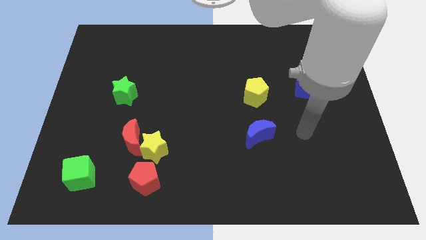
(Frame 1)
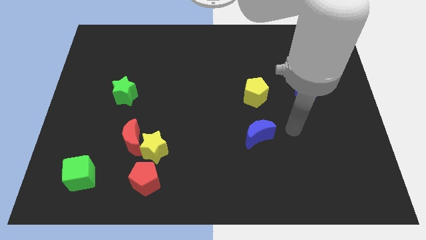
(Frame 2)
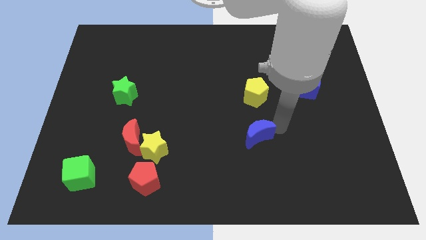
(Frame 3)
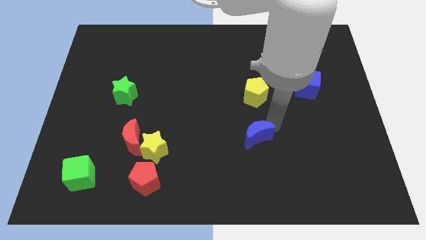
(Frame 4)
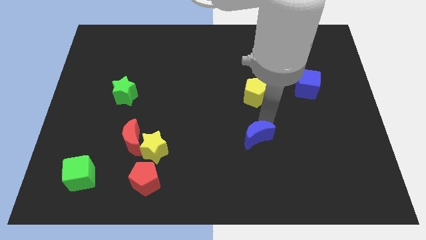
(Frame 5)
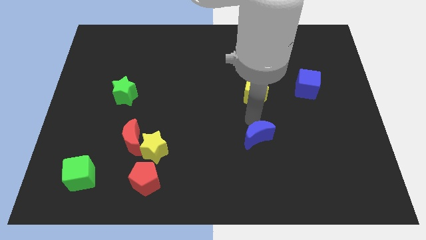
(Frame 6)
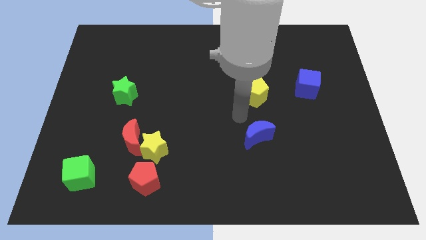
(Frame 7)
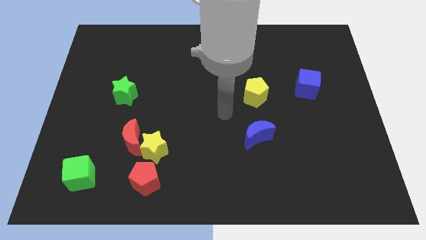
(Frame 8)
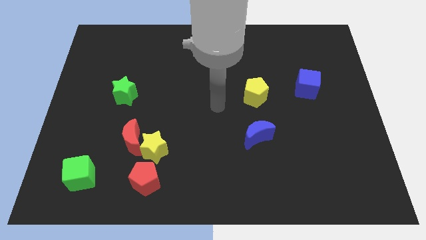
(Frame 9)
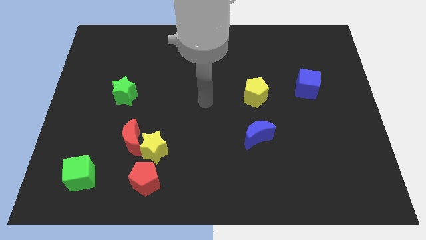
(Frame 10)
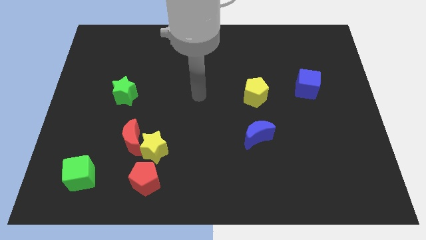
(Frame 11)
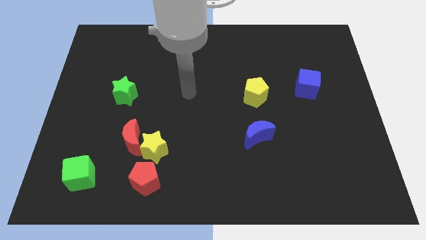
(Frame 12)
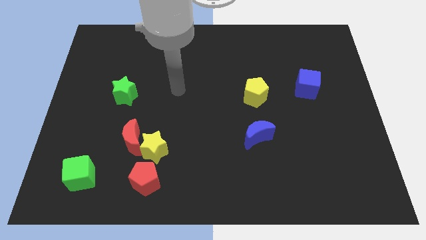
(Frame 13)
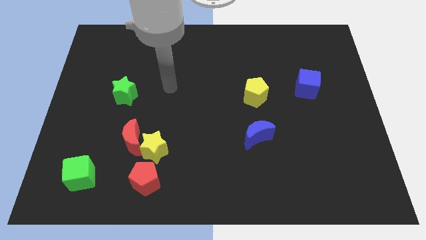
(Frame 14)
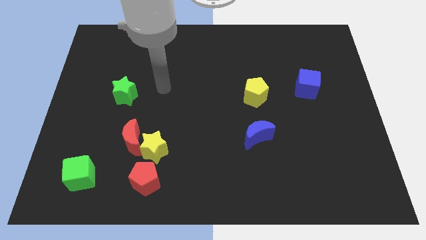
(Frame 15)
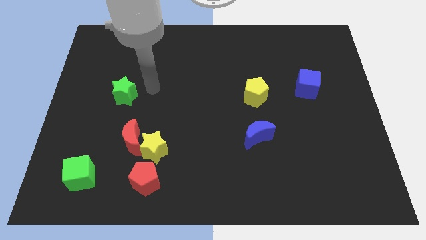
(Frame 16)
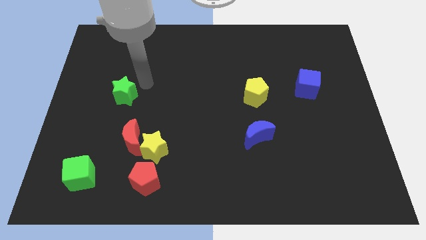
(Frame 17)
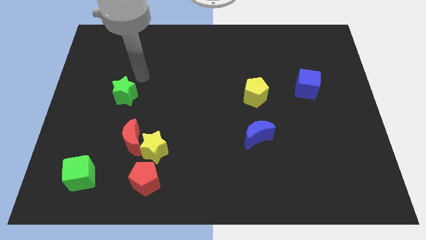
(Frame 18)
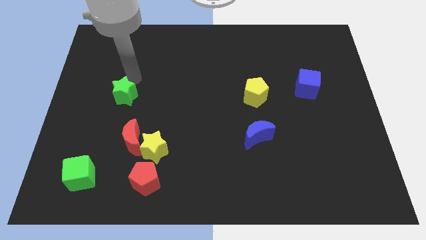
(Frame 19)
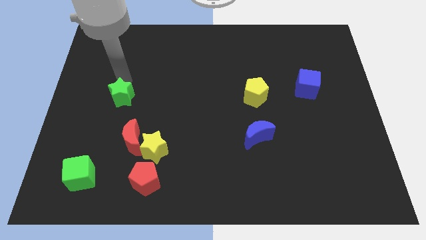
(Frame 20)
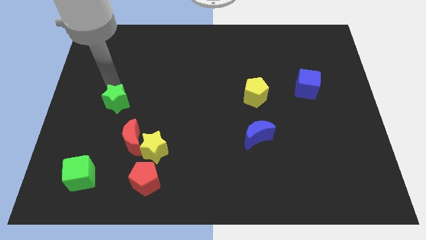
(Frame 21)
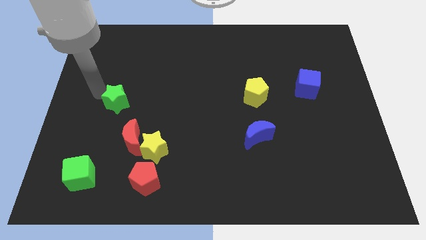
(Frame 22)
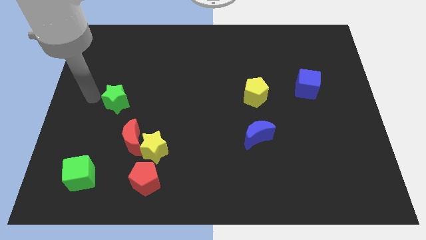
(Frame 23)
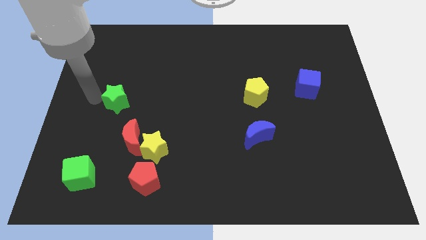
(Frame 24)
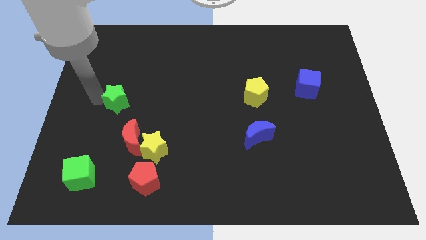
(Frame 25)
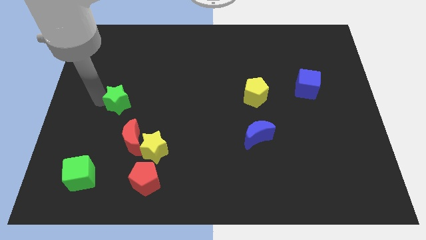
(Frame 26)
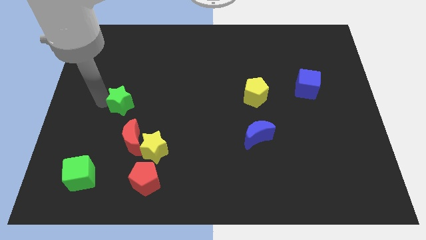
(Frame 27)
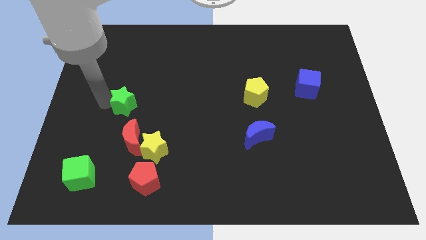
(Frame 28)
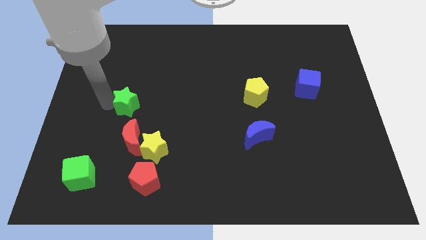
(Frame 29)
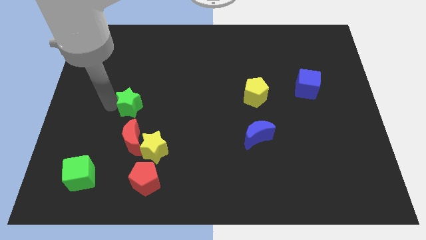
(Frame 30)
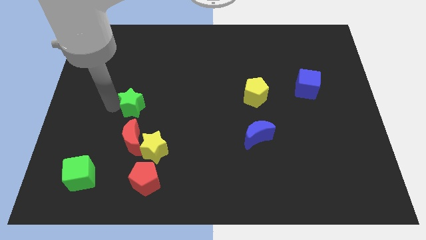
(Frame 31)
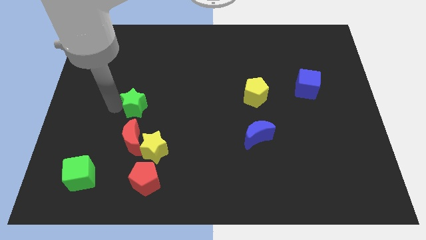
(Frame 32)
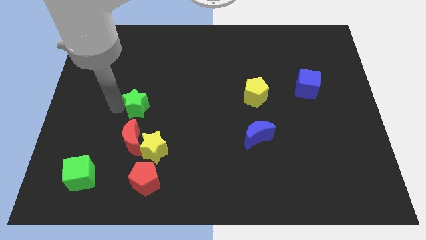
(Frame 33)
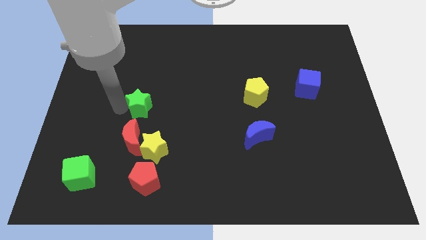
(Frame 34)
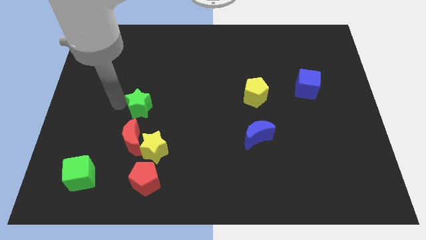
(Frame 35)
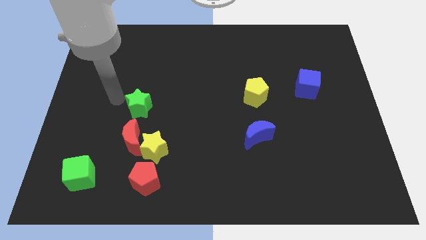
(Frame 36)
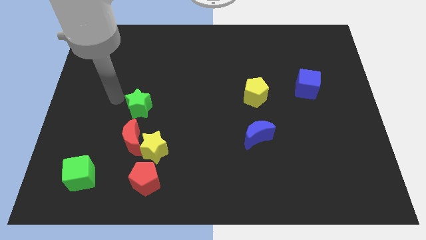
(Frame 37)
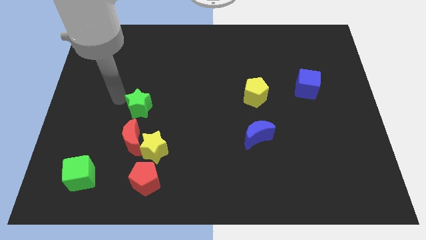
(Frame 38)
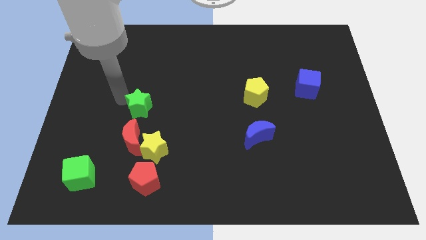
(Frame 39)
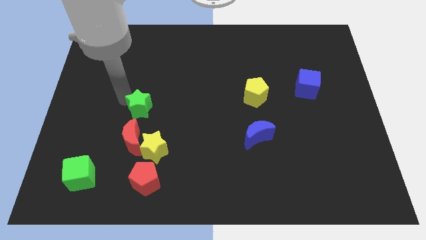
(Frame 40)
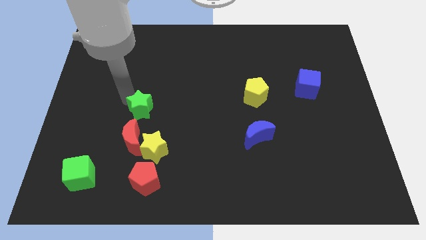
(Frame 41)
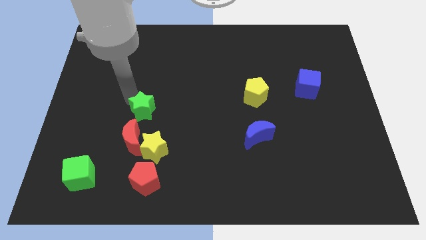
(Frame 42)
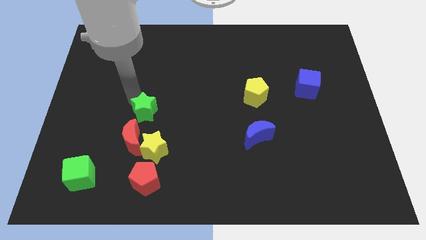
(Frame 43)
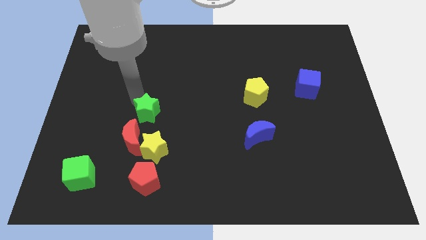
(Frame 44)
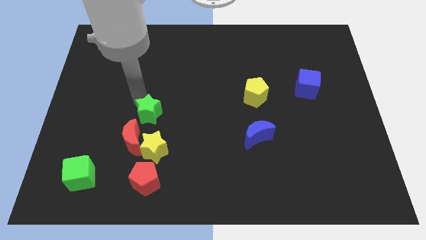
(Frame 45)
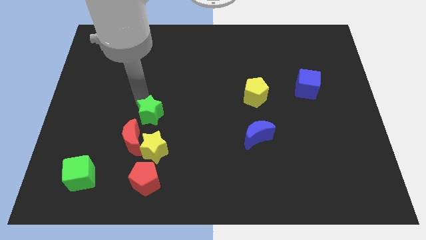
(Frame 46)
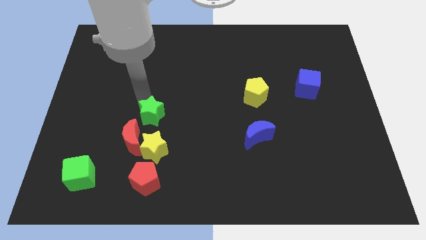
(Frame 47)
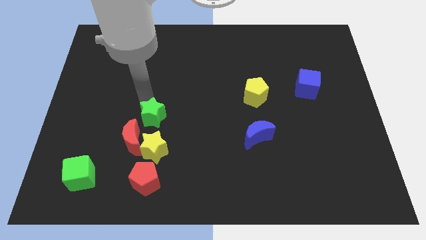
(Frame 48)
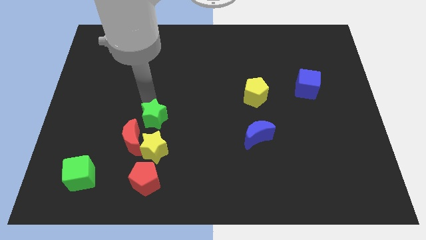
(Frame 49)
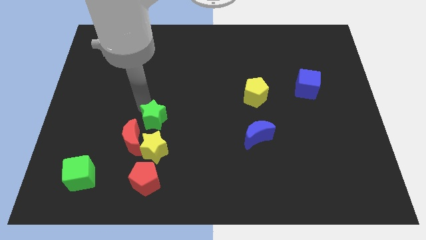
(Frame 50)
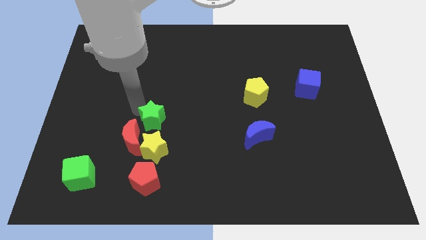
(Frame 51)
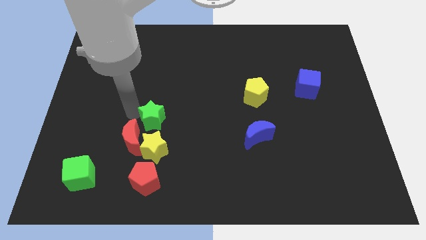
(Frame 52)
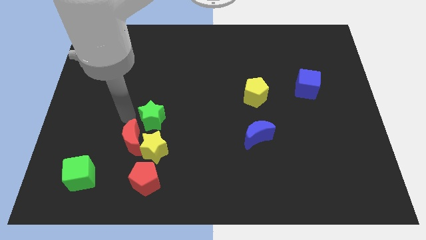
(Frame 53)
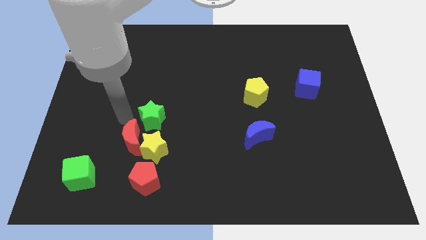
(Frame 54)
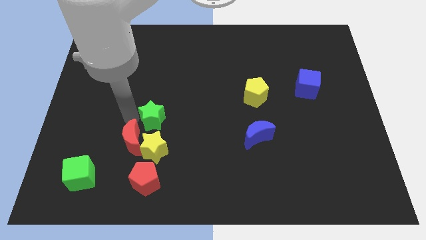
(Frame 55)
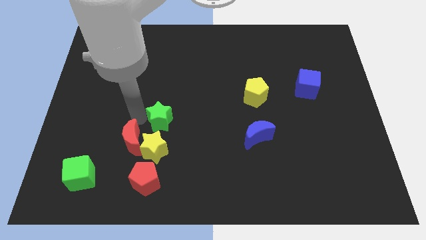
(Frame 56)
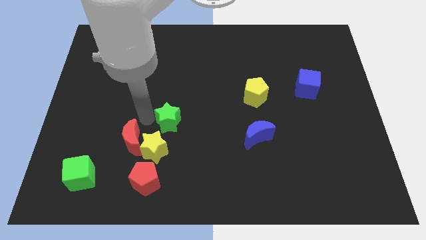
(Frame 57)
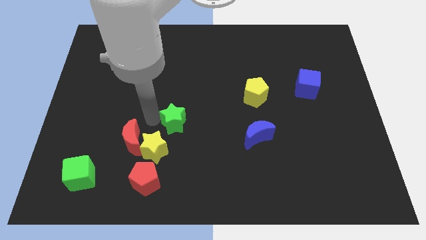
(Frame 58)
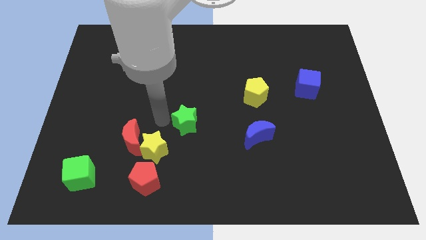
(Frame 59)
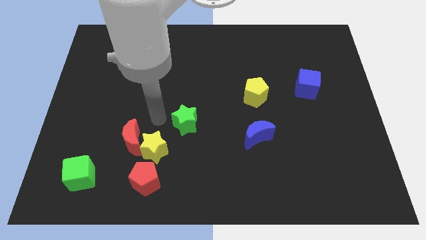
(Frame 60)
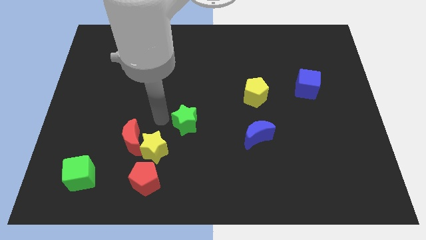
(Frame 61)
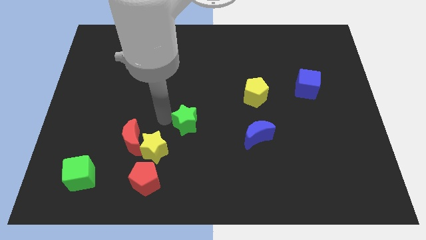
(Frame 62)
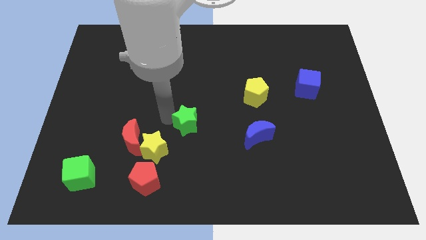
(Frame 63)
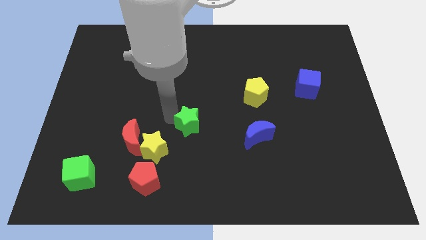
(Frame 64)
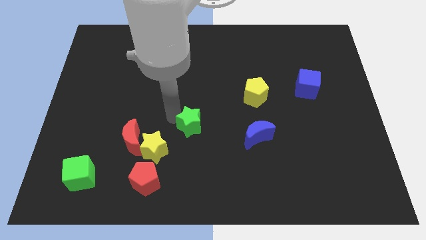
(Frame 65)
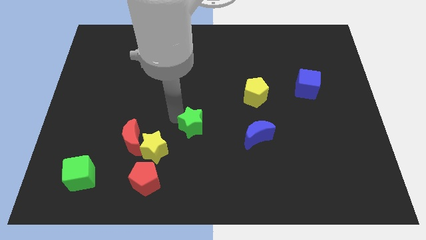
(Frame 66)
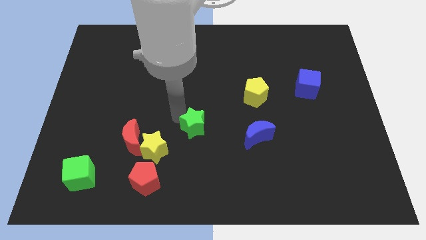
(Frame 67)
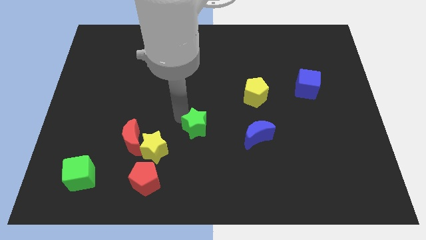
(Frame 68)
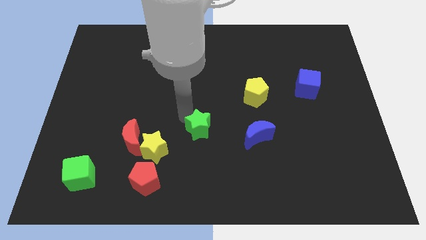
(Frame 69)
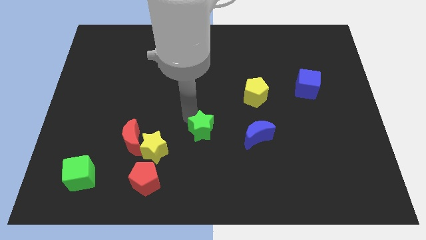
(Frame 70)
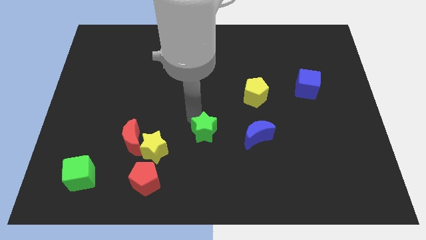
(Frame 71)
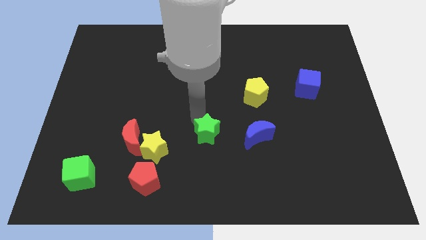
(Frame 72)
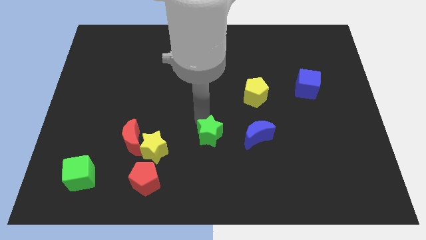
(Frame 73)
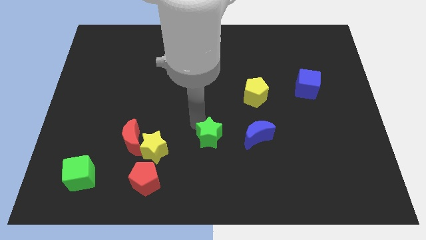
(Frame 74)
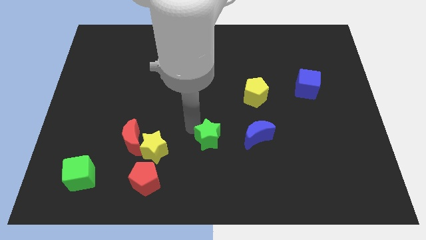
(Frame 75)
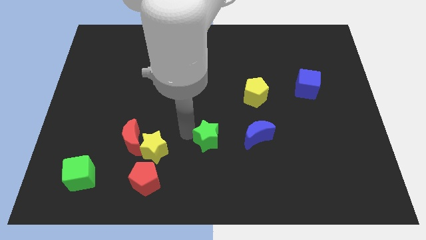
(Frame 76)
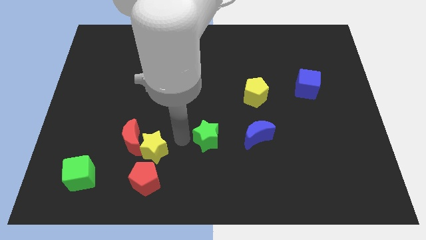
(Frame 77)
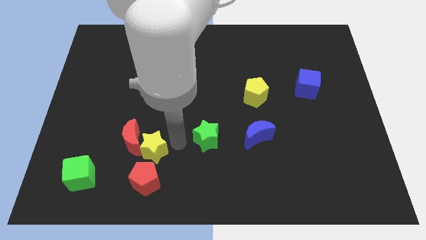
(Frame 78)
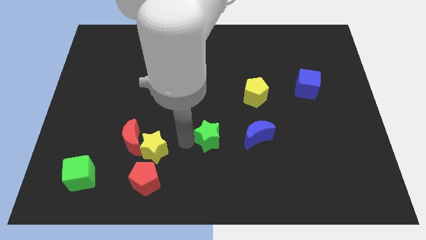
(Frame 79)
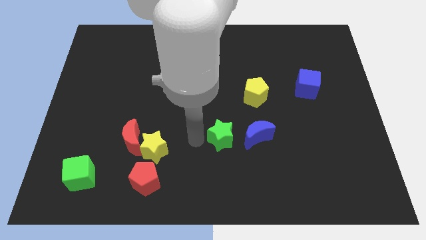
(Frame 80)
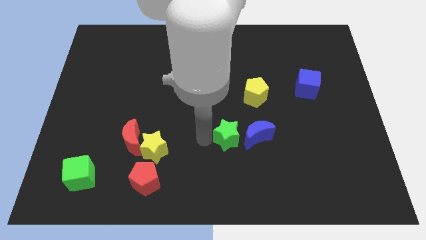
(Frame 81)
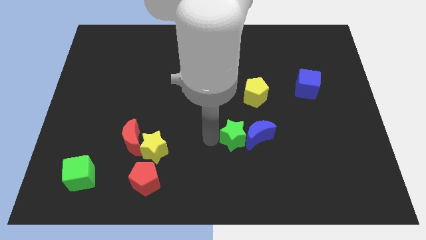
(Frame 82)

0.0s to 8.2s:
put the green star close to the blue moon

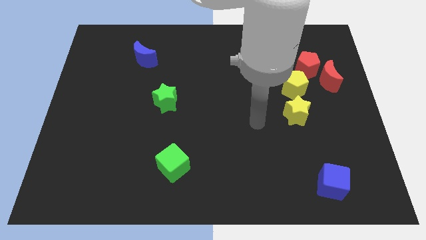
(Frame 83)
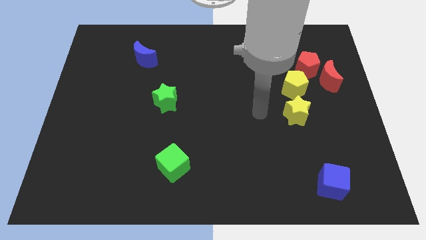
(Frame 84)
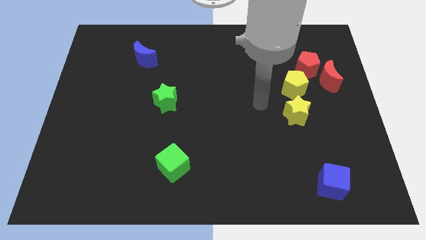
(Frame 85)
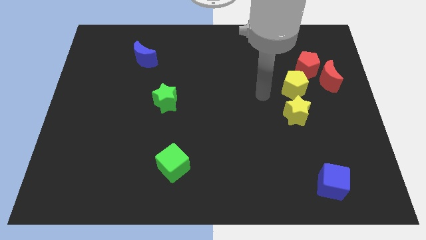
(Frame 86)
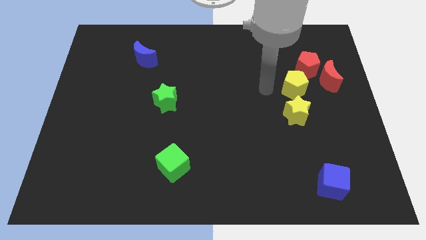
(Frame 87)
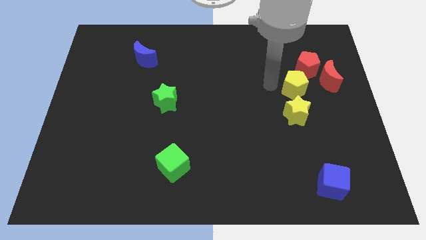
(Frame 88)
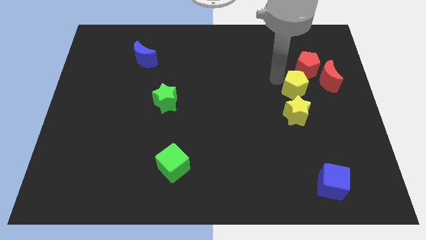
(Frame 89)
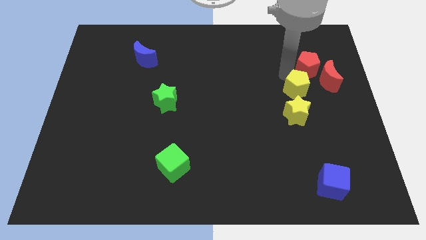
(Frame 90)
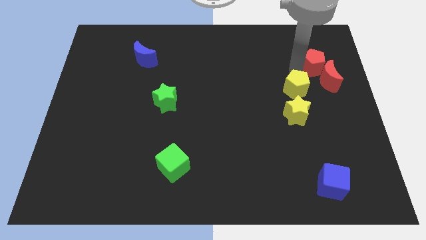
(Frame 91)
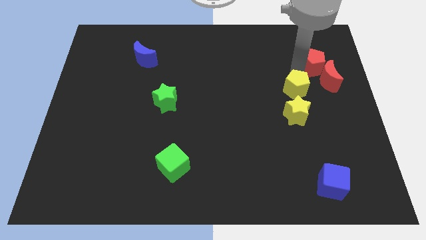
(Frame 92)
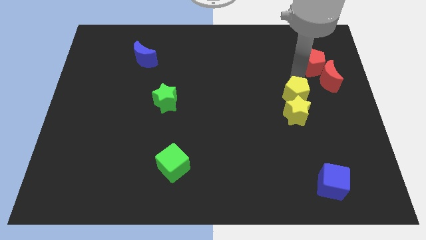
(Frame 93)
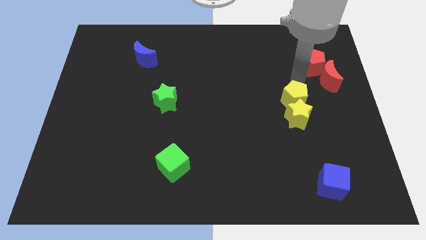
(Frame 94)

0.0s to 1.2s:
put the yellow pentagon towards the yellow star
